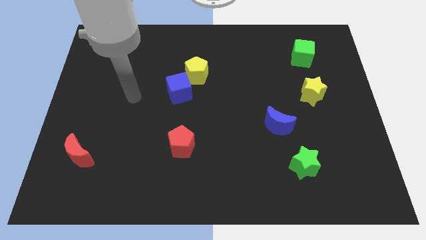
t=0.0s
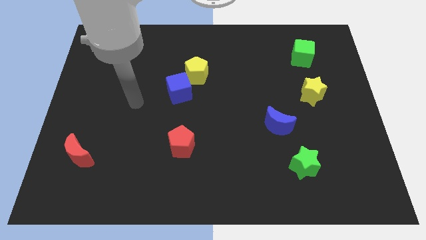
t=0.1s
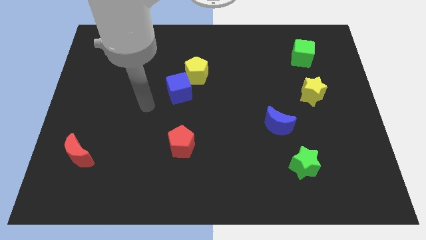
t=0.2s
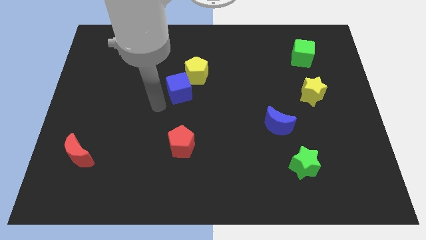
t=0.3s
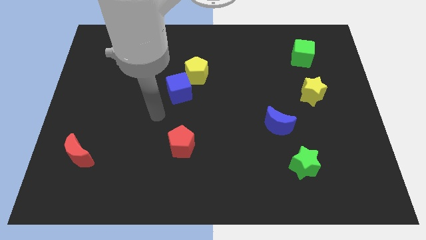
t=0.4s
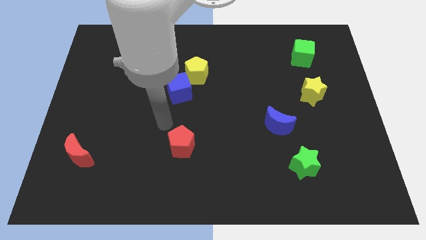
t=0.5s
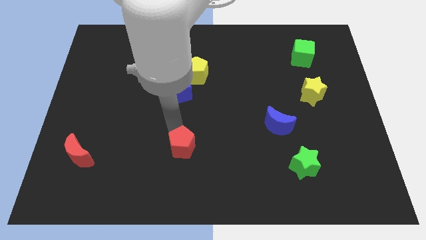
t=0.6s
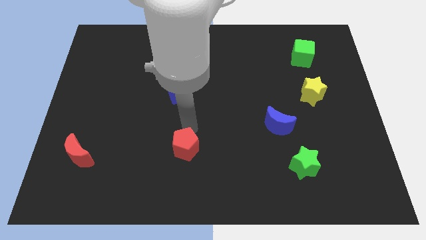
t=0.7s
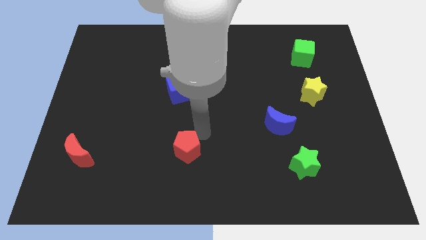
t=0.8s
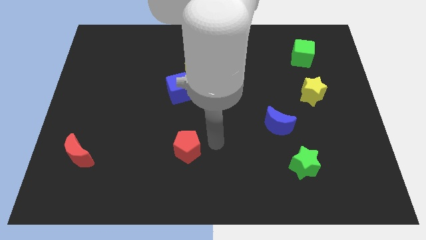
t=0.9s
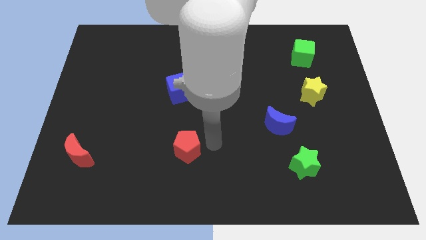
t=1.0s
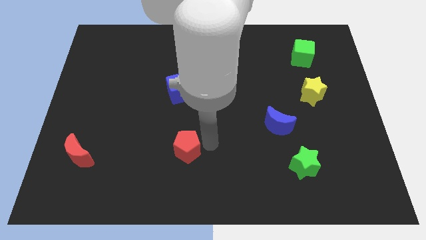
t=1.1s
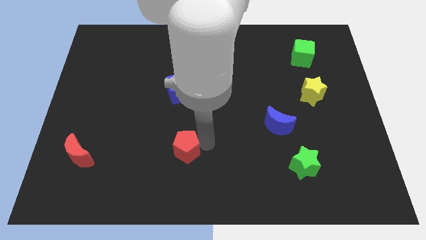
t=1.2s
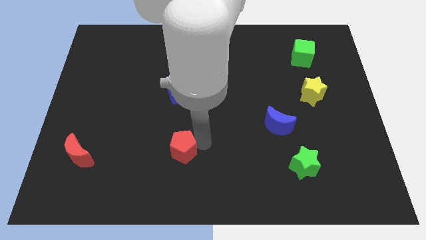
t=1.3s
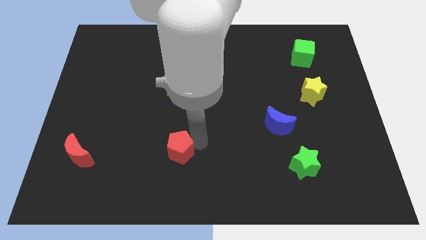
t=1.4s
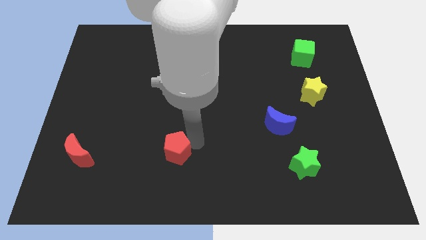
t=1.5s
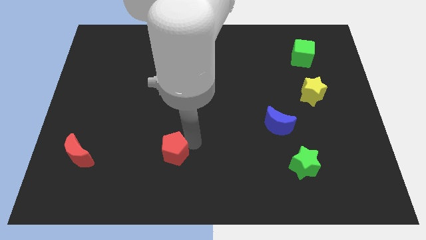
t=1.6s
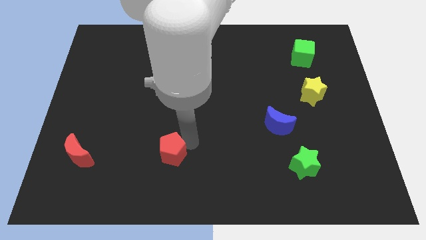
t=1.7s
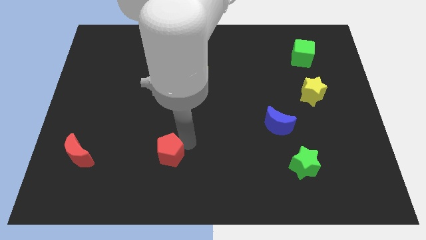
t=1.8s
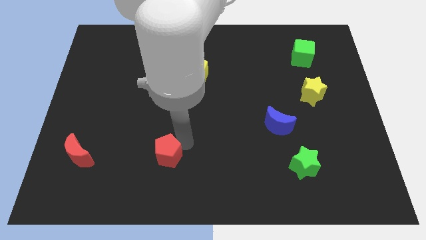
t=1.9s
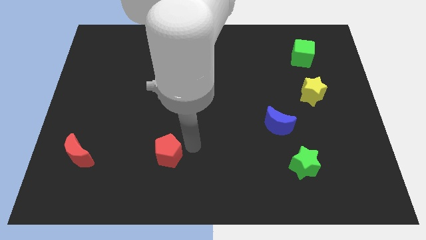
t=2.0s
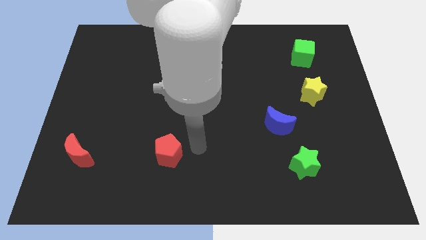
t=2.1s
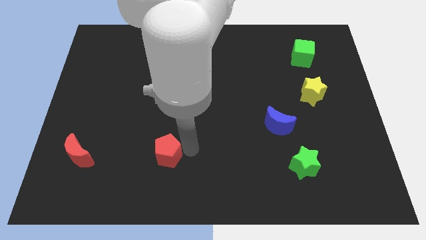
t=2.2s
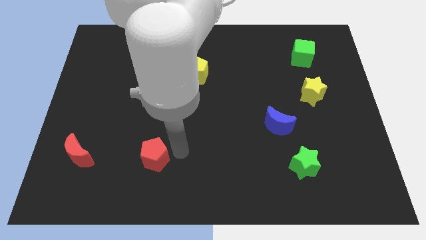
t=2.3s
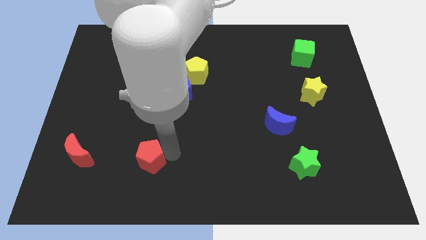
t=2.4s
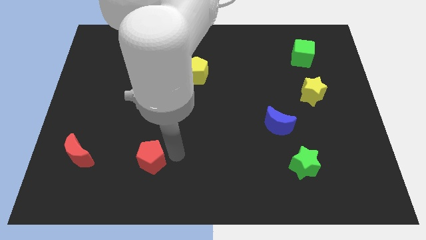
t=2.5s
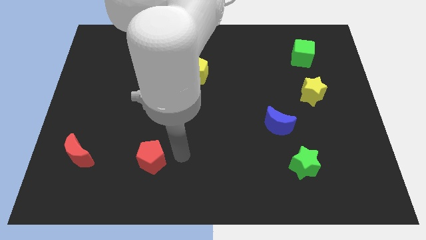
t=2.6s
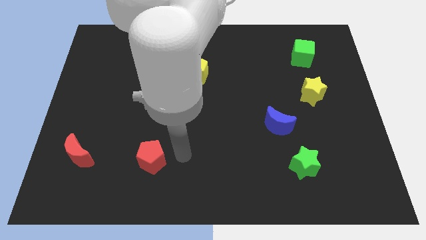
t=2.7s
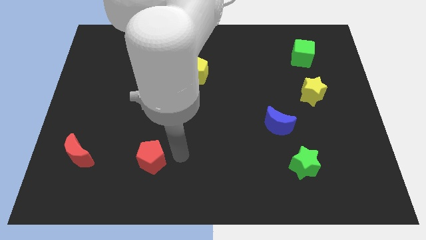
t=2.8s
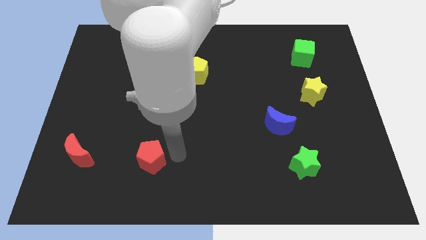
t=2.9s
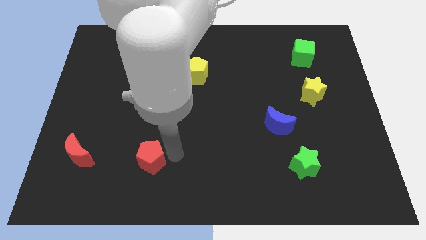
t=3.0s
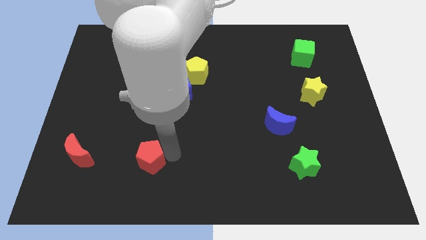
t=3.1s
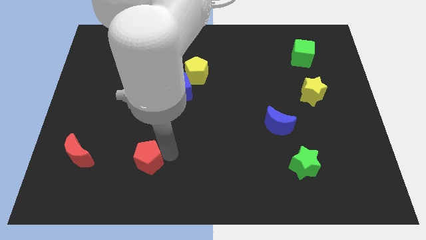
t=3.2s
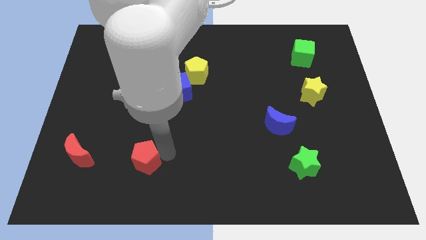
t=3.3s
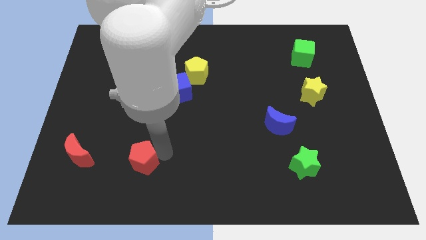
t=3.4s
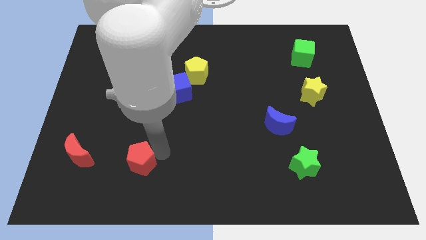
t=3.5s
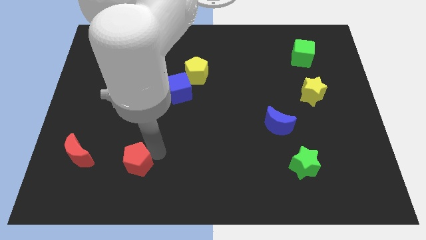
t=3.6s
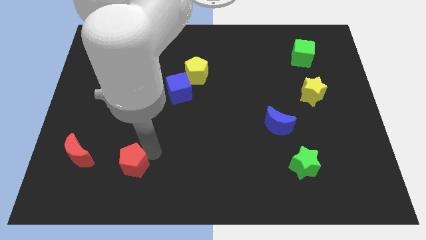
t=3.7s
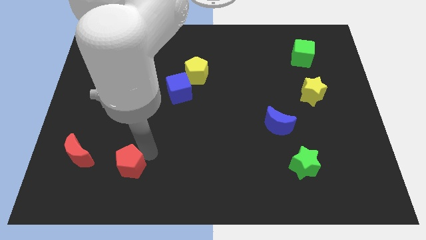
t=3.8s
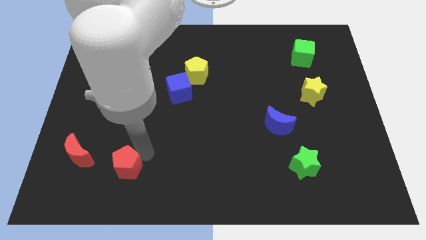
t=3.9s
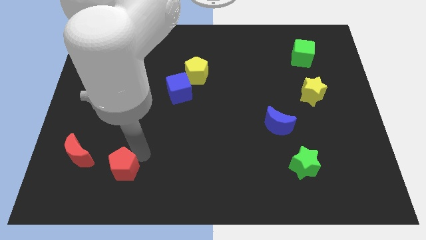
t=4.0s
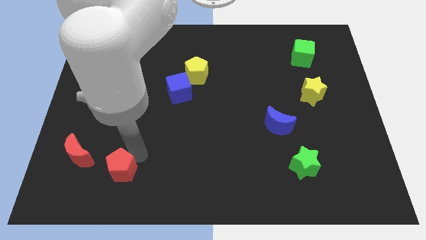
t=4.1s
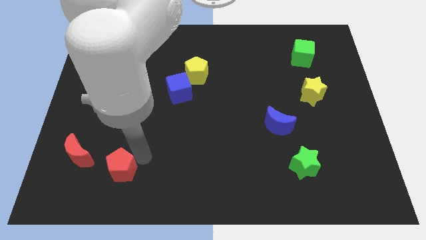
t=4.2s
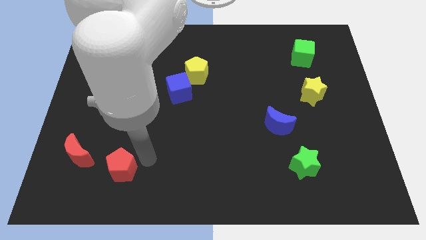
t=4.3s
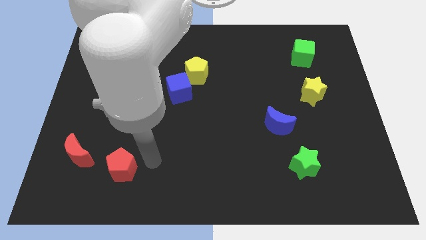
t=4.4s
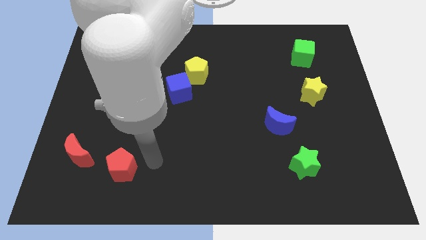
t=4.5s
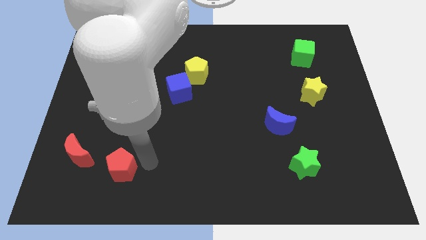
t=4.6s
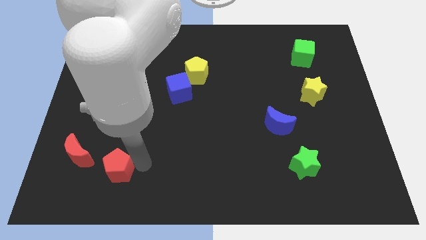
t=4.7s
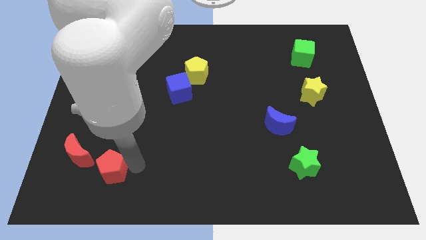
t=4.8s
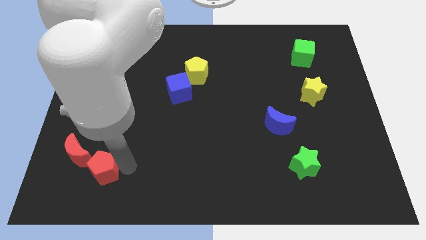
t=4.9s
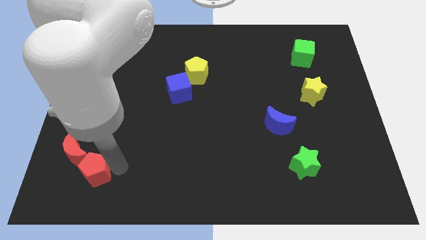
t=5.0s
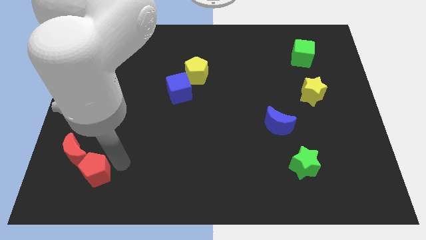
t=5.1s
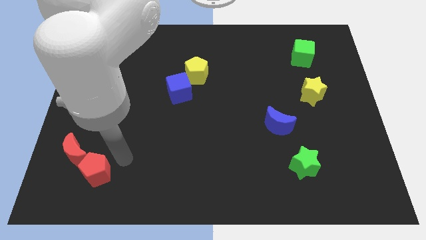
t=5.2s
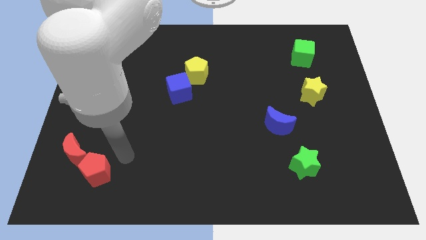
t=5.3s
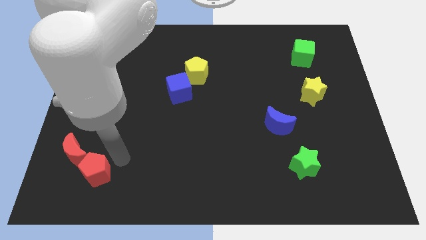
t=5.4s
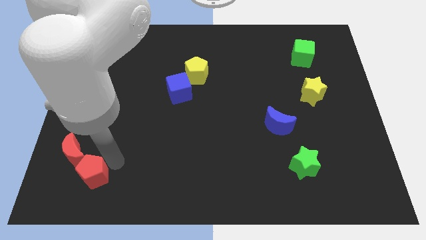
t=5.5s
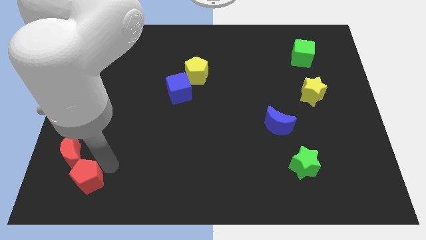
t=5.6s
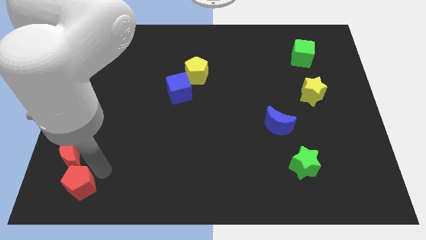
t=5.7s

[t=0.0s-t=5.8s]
move the red pentagon to the bottom left
